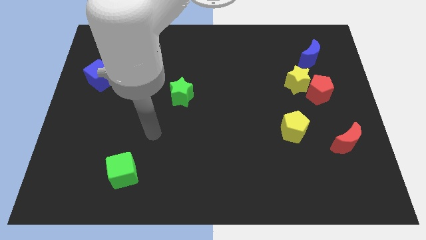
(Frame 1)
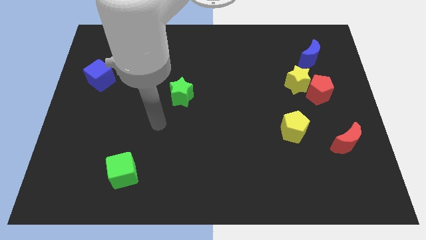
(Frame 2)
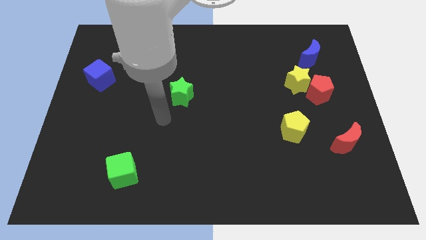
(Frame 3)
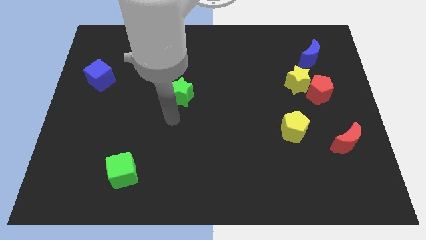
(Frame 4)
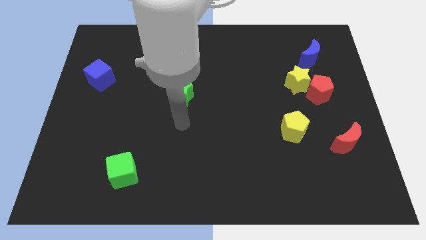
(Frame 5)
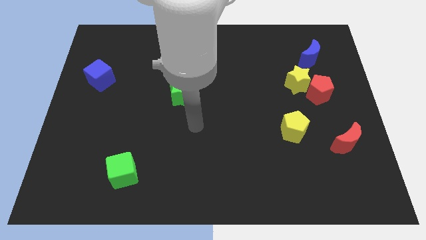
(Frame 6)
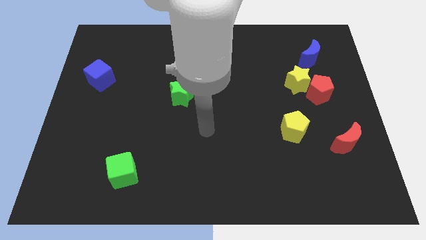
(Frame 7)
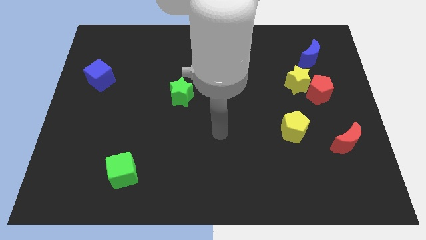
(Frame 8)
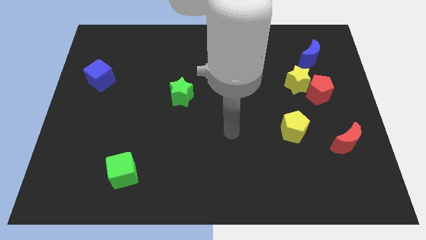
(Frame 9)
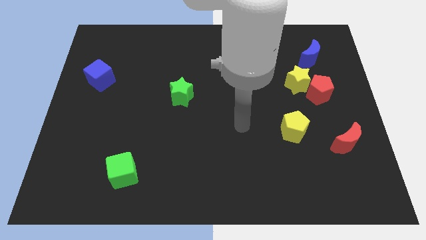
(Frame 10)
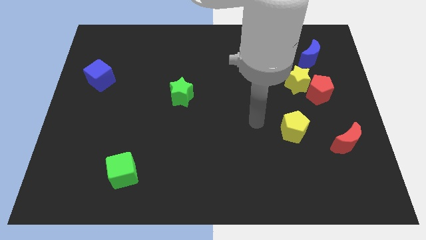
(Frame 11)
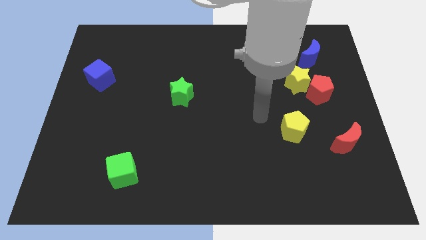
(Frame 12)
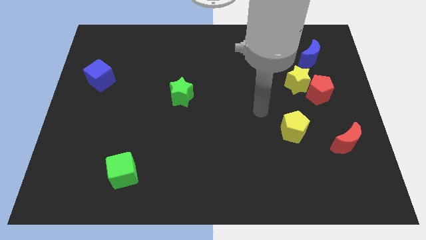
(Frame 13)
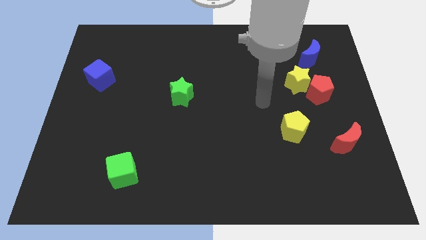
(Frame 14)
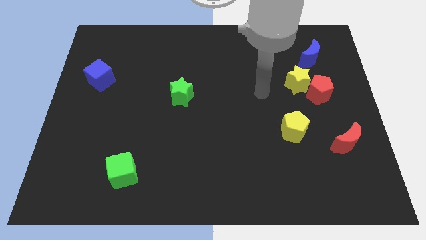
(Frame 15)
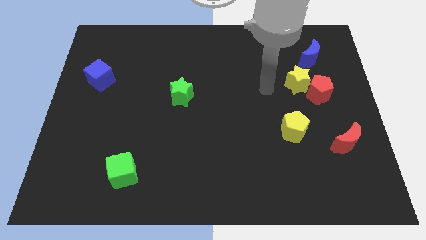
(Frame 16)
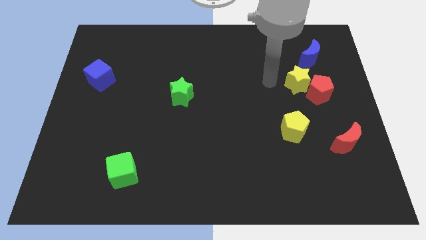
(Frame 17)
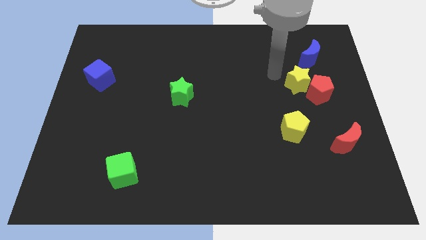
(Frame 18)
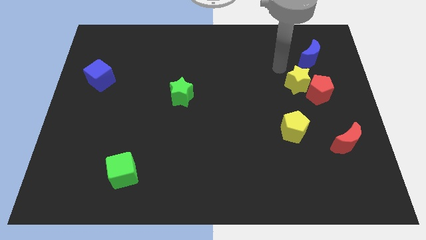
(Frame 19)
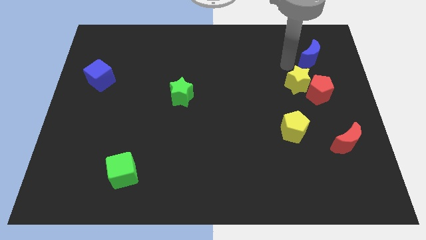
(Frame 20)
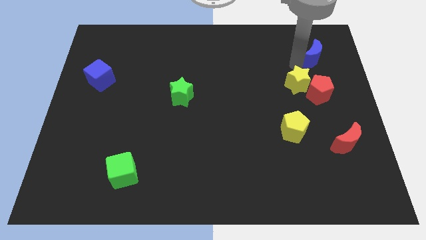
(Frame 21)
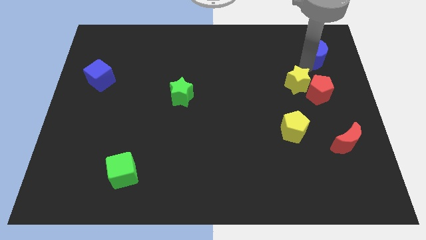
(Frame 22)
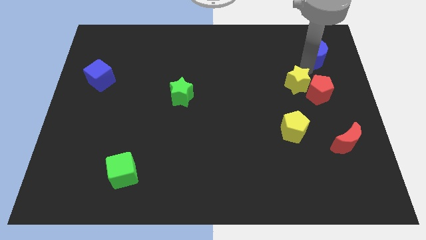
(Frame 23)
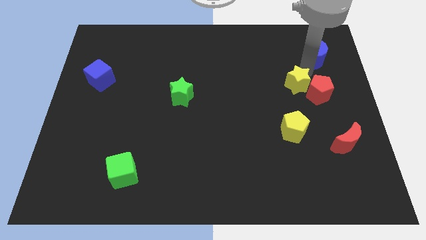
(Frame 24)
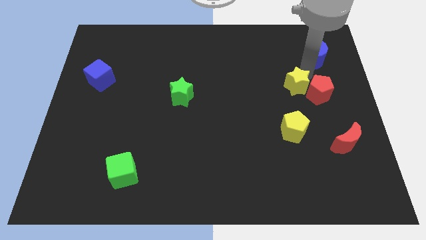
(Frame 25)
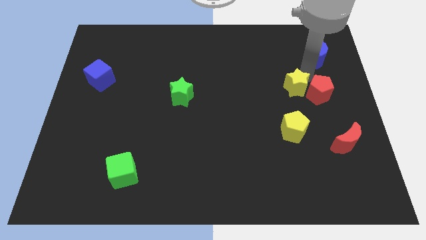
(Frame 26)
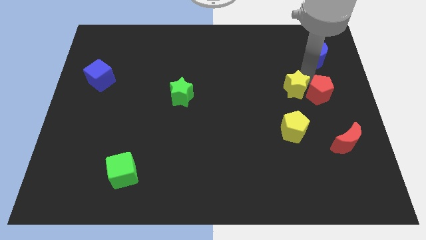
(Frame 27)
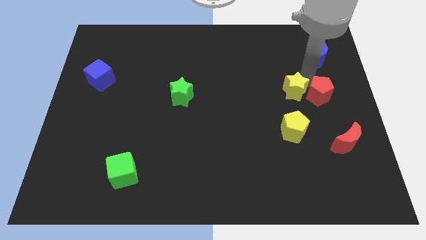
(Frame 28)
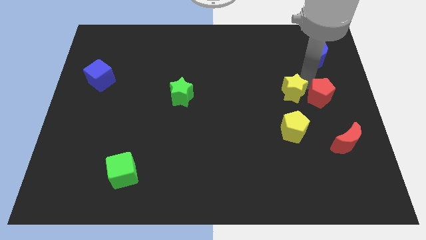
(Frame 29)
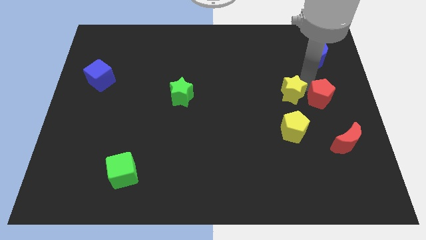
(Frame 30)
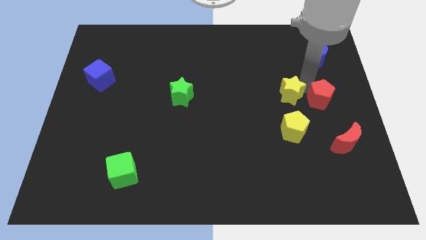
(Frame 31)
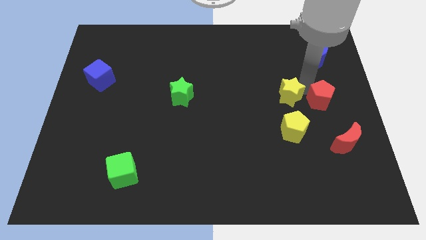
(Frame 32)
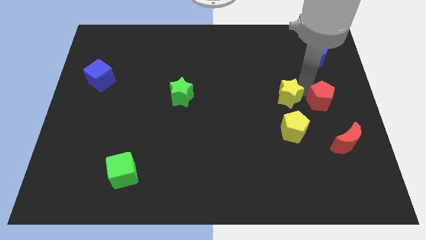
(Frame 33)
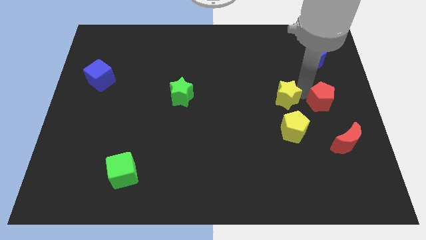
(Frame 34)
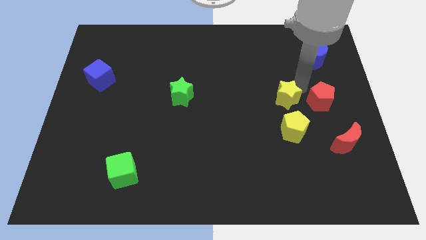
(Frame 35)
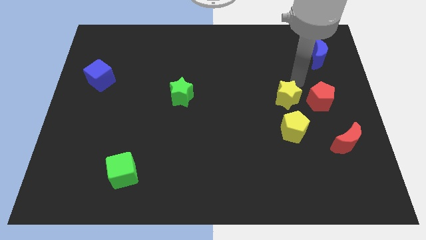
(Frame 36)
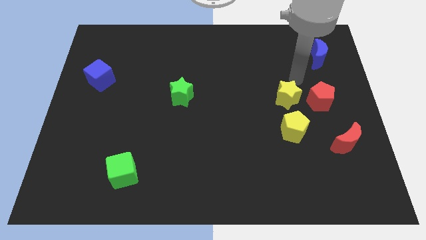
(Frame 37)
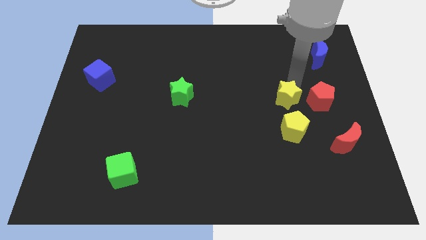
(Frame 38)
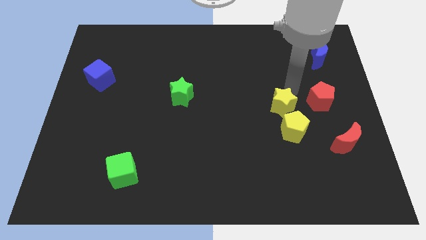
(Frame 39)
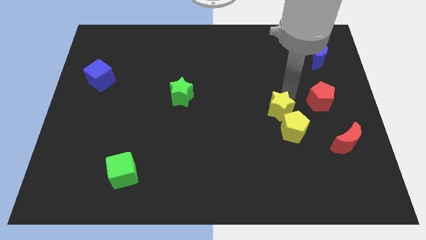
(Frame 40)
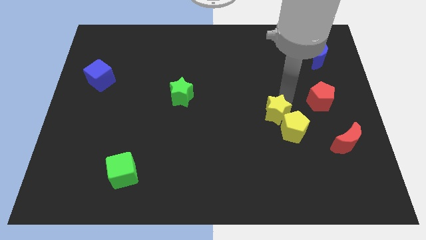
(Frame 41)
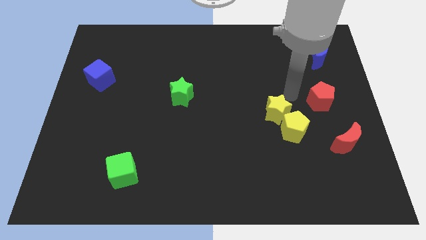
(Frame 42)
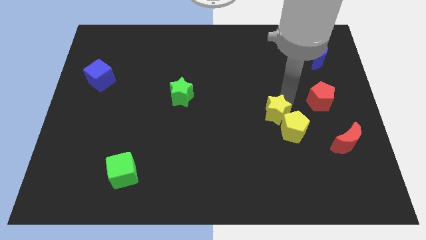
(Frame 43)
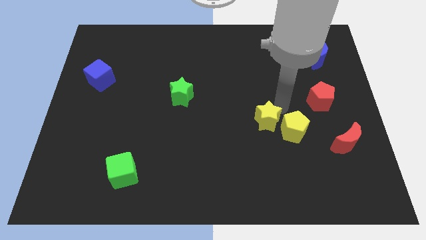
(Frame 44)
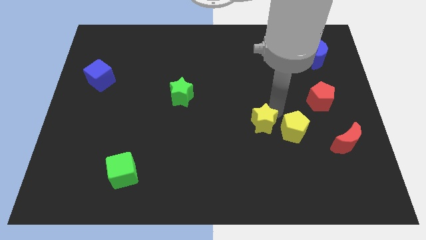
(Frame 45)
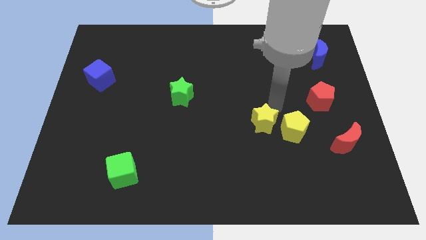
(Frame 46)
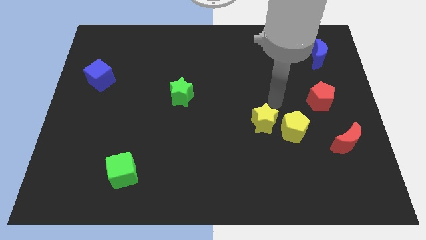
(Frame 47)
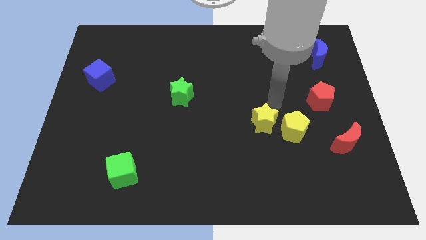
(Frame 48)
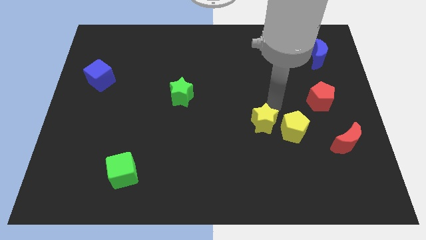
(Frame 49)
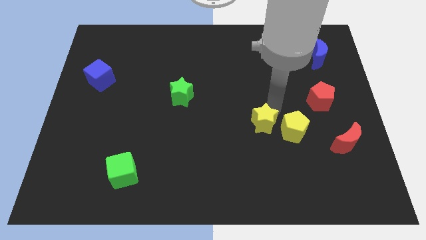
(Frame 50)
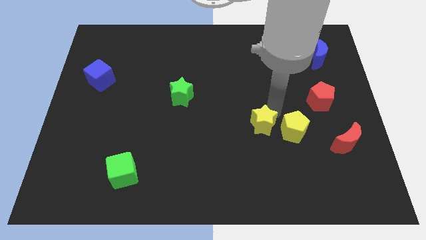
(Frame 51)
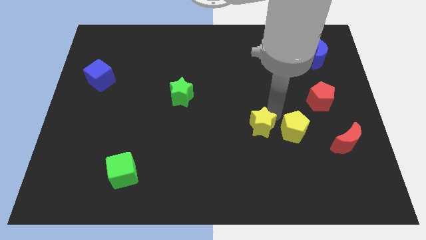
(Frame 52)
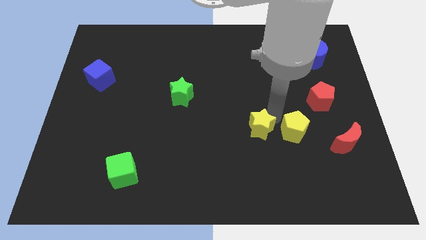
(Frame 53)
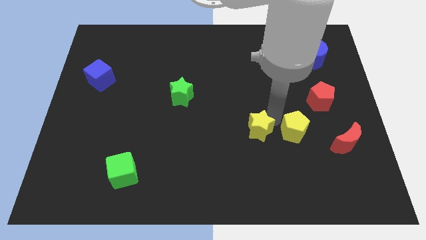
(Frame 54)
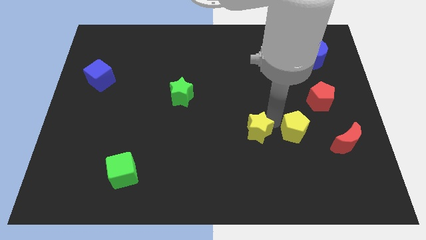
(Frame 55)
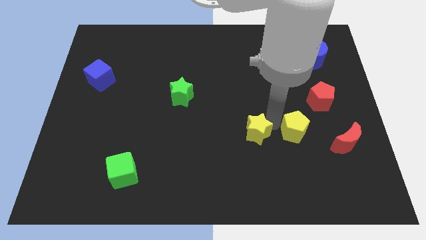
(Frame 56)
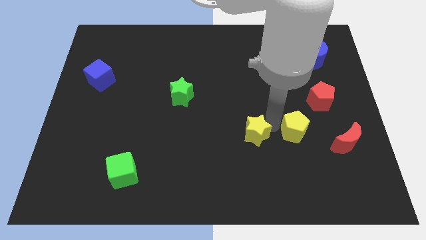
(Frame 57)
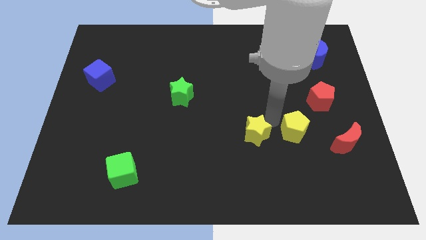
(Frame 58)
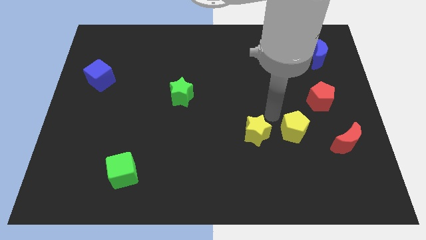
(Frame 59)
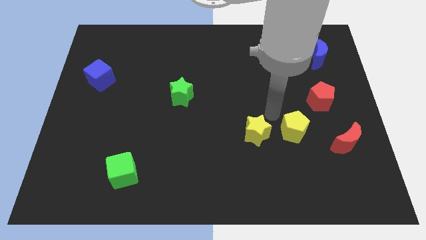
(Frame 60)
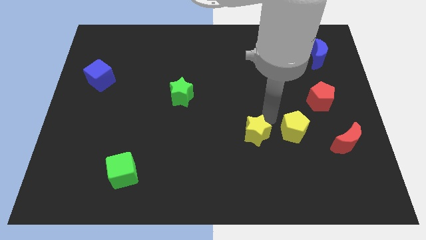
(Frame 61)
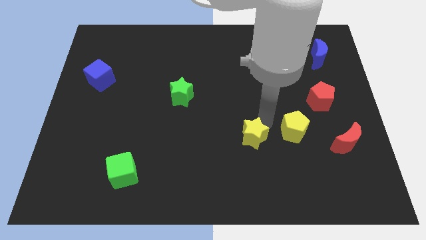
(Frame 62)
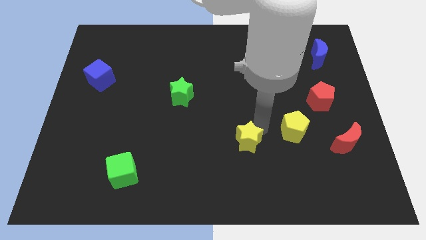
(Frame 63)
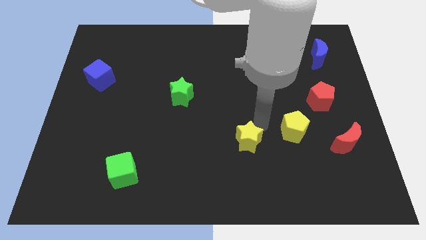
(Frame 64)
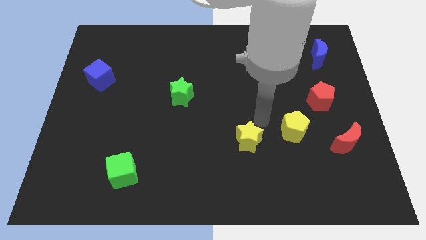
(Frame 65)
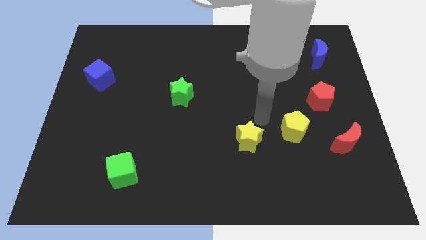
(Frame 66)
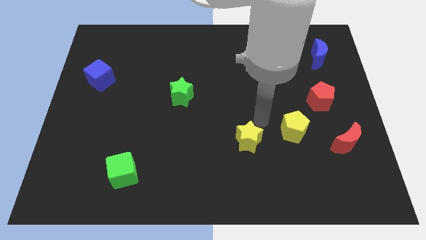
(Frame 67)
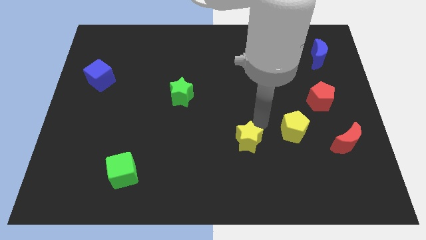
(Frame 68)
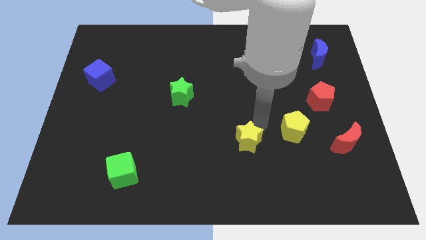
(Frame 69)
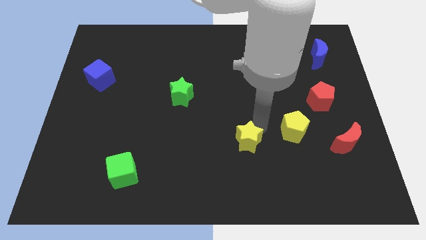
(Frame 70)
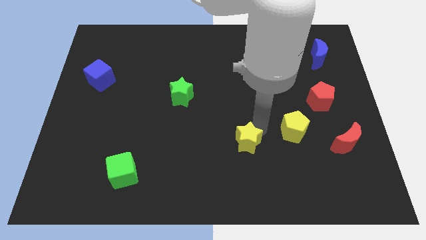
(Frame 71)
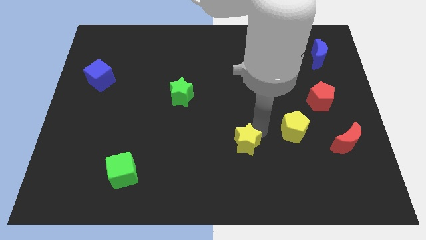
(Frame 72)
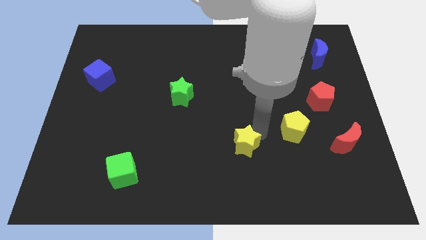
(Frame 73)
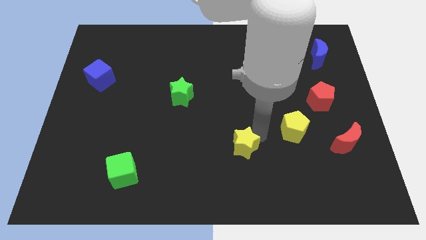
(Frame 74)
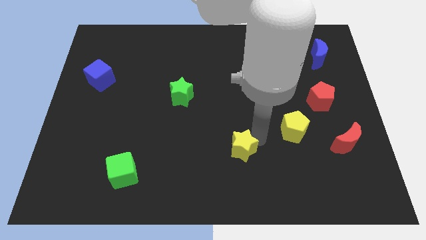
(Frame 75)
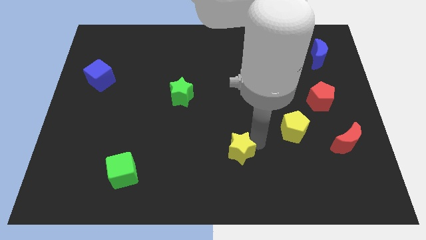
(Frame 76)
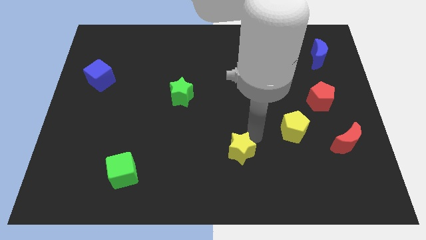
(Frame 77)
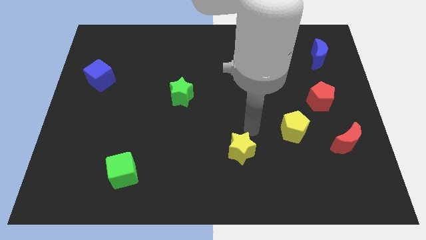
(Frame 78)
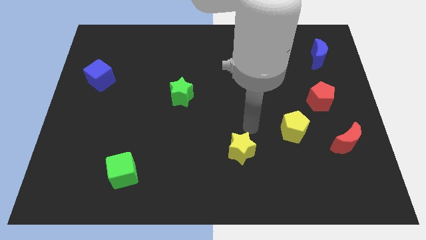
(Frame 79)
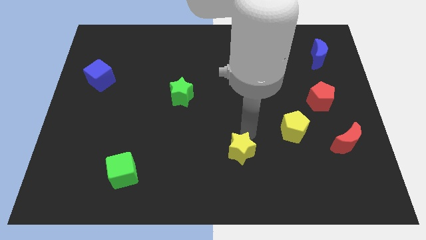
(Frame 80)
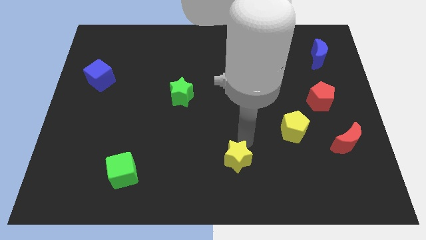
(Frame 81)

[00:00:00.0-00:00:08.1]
move the yellow star to the bottom side
